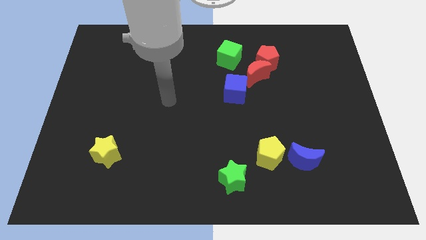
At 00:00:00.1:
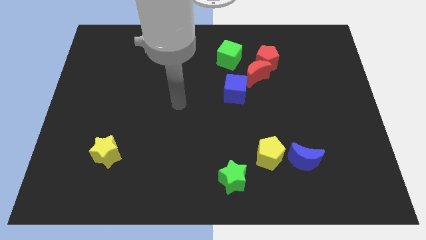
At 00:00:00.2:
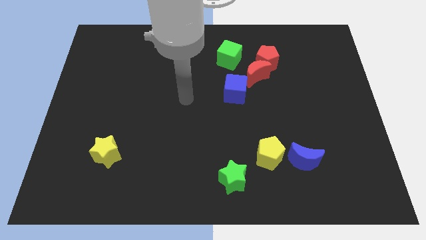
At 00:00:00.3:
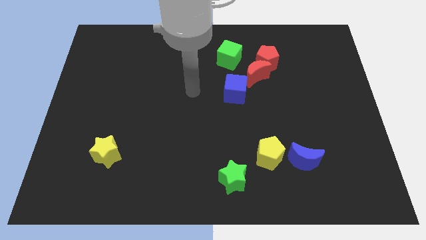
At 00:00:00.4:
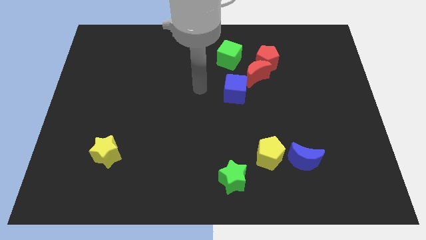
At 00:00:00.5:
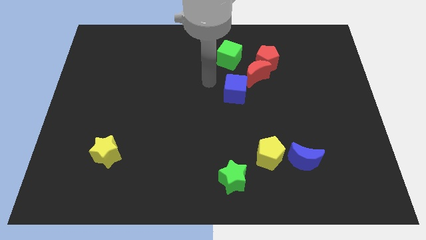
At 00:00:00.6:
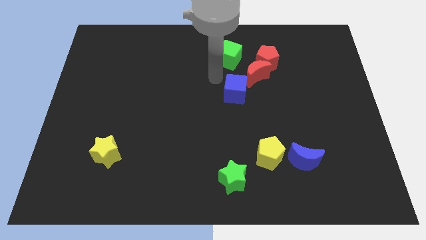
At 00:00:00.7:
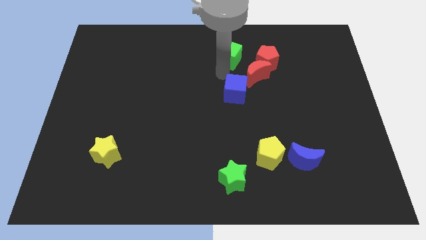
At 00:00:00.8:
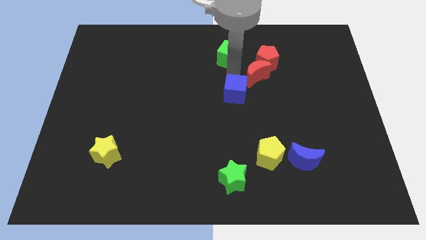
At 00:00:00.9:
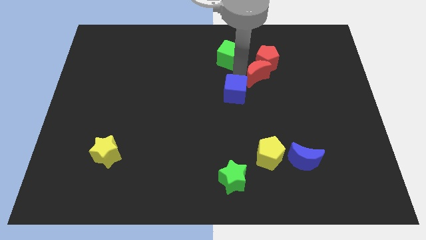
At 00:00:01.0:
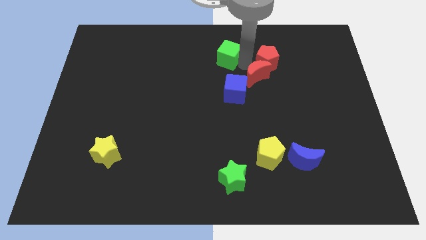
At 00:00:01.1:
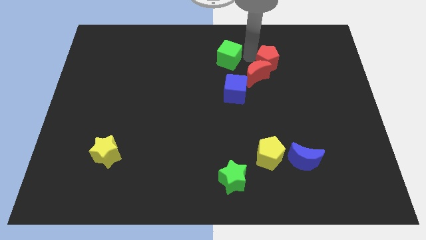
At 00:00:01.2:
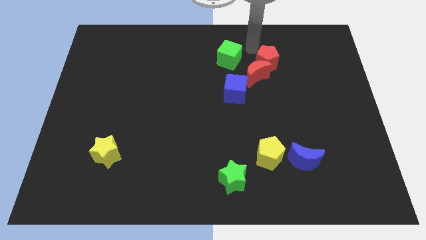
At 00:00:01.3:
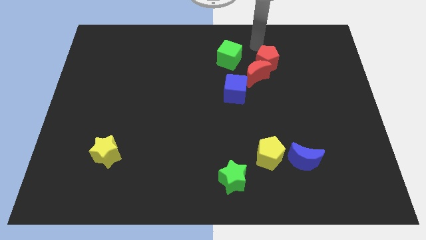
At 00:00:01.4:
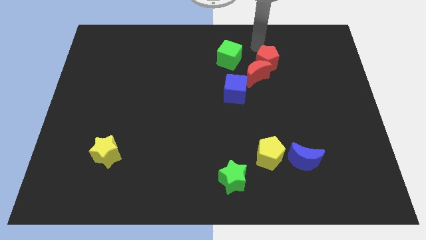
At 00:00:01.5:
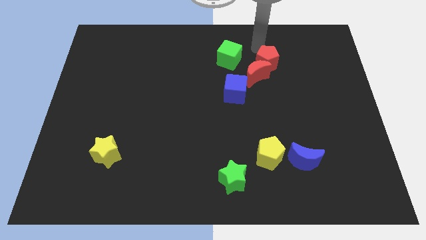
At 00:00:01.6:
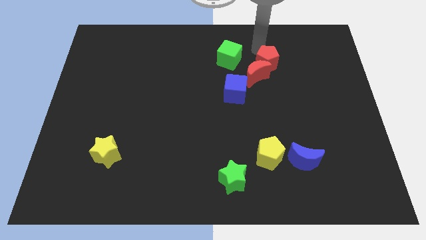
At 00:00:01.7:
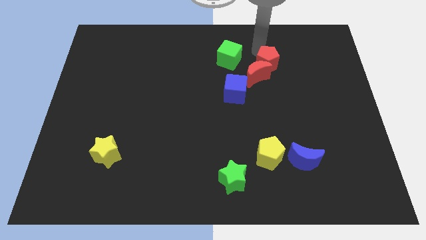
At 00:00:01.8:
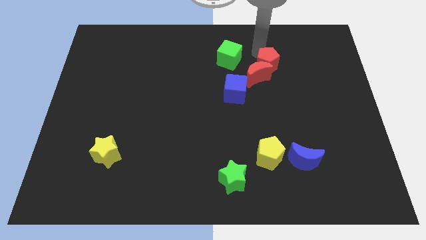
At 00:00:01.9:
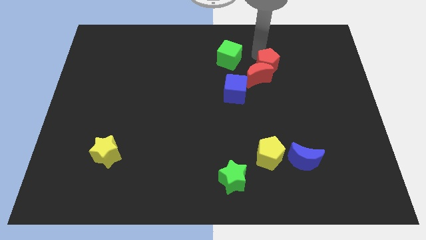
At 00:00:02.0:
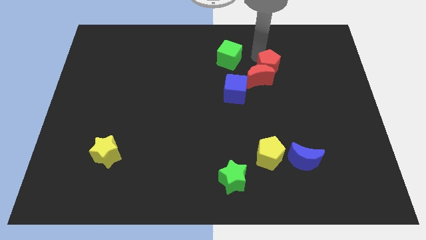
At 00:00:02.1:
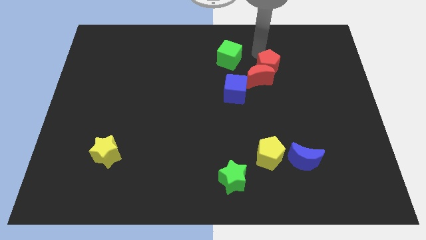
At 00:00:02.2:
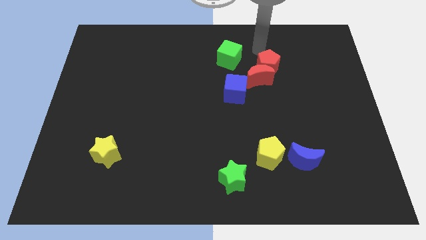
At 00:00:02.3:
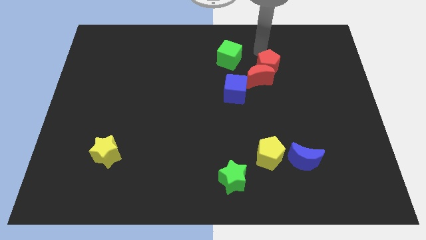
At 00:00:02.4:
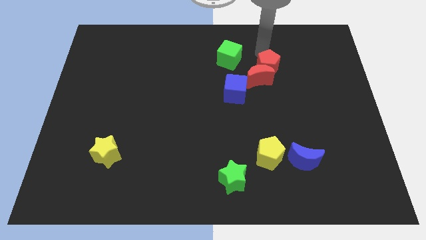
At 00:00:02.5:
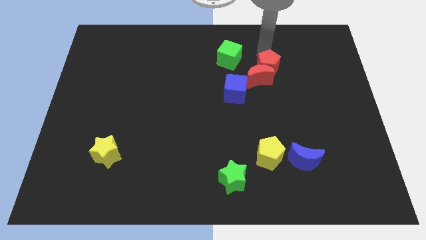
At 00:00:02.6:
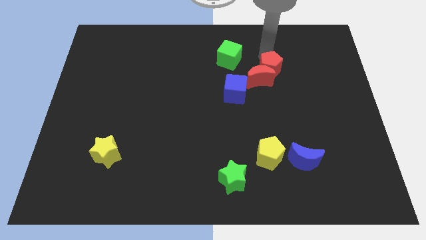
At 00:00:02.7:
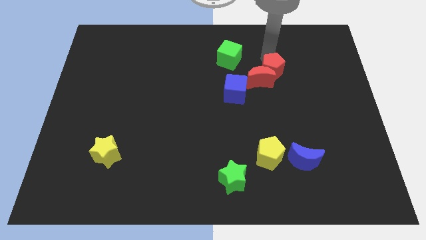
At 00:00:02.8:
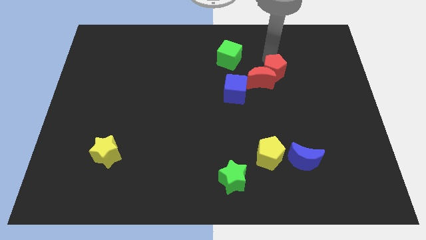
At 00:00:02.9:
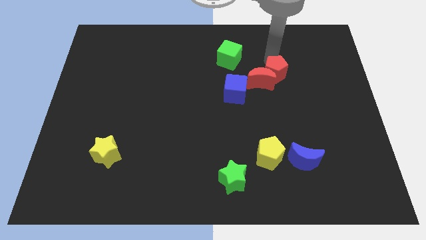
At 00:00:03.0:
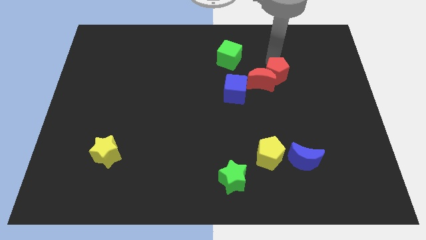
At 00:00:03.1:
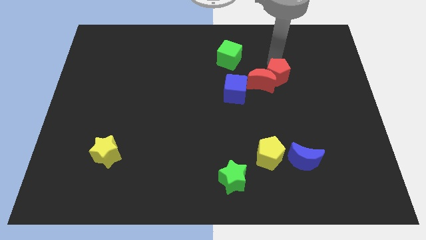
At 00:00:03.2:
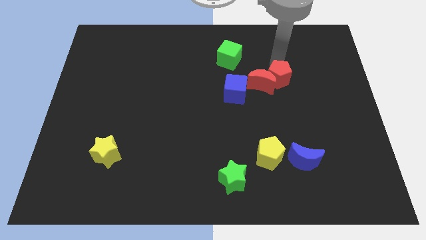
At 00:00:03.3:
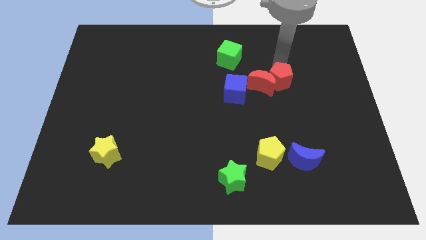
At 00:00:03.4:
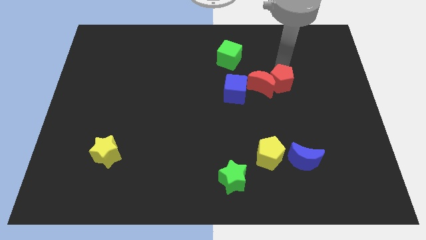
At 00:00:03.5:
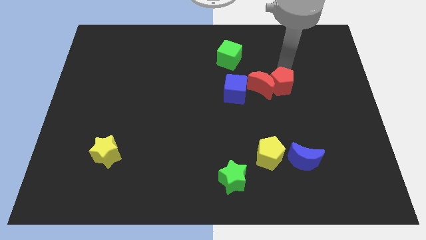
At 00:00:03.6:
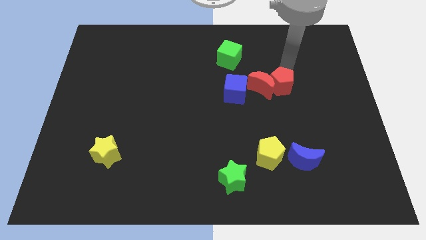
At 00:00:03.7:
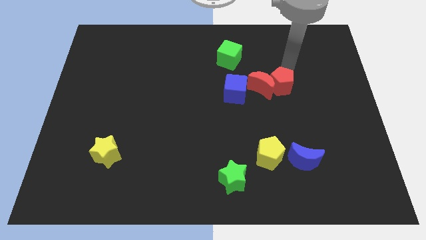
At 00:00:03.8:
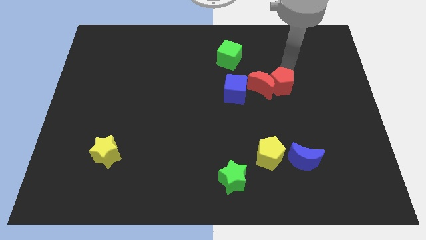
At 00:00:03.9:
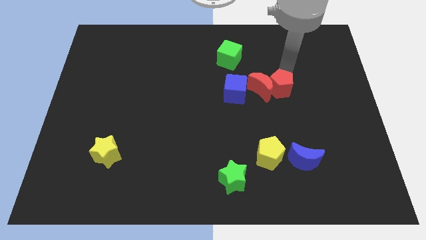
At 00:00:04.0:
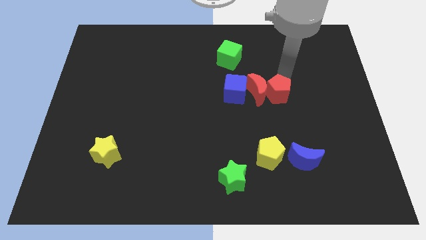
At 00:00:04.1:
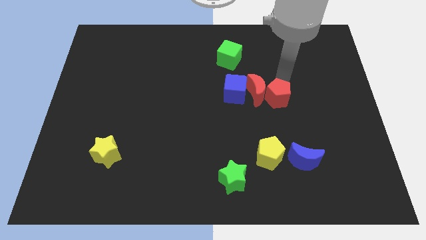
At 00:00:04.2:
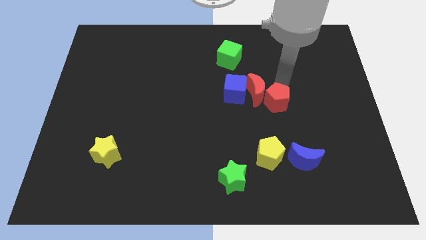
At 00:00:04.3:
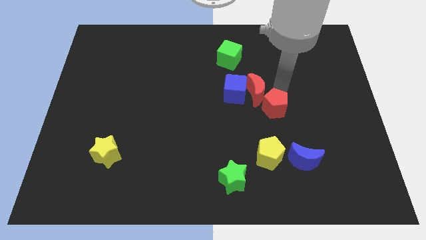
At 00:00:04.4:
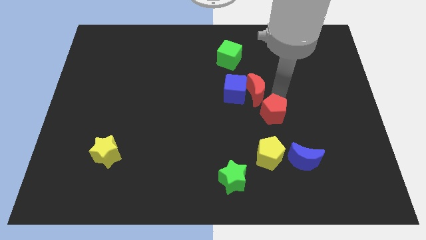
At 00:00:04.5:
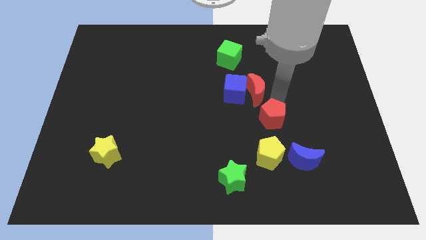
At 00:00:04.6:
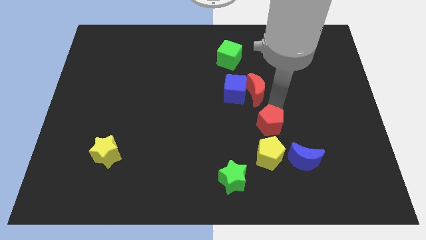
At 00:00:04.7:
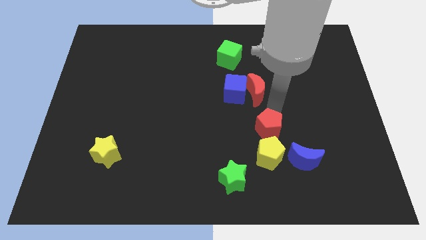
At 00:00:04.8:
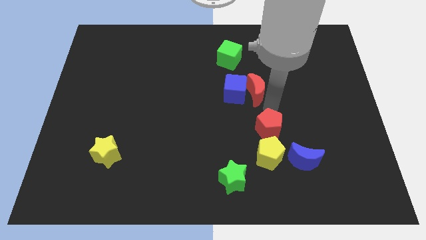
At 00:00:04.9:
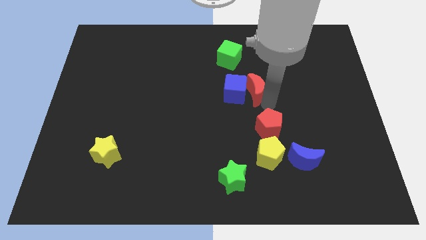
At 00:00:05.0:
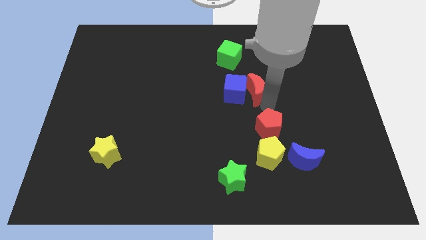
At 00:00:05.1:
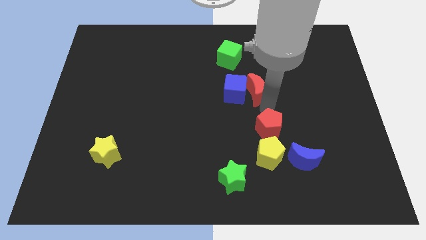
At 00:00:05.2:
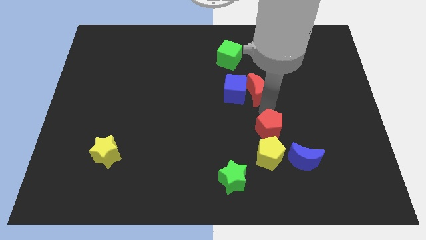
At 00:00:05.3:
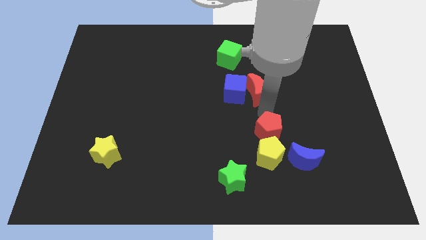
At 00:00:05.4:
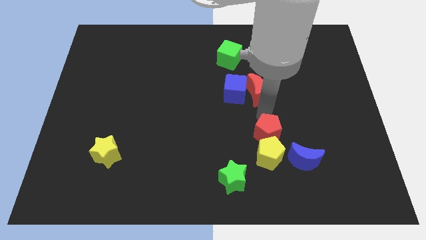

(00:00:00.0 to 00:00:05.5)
move the red pentagon next to the yellow pentagon

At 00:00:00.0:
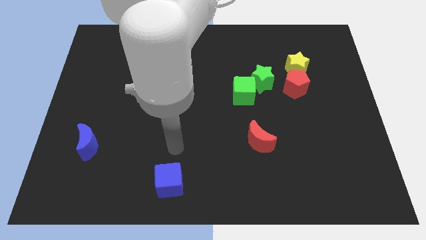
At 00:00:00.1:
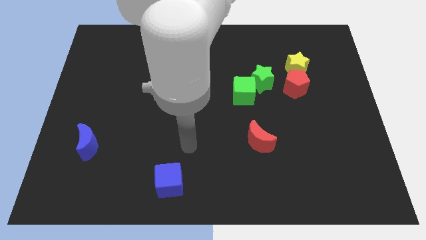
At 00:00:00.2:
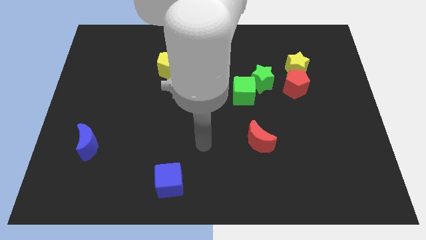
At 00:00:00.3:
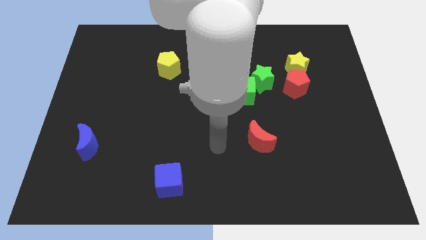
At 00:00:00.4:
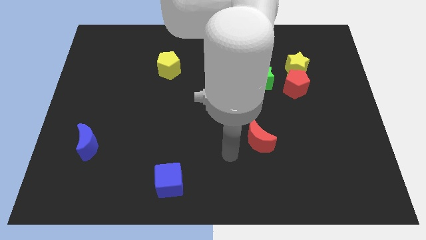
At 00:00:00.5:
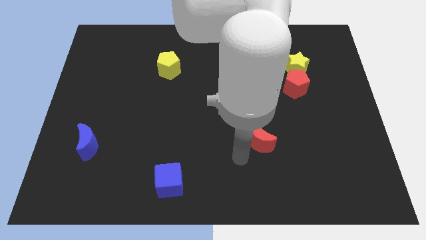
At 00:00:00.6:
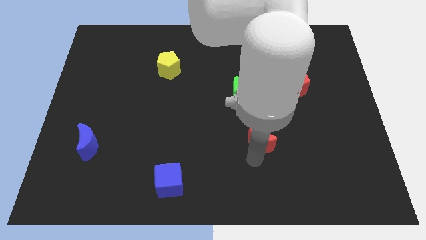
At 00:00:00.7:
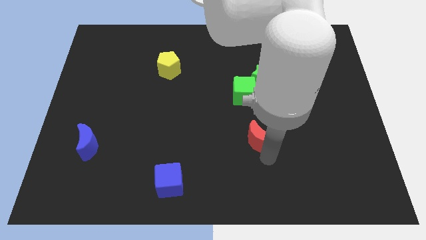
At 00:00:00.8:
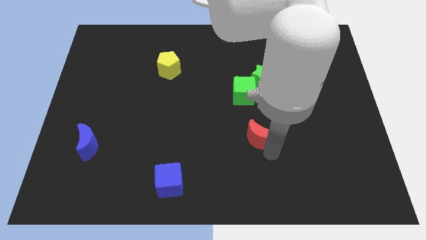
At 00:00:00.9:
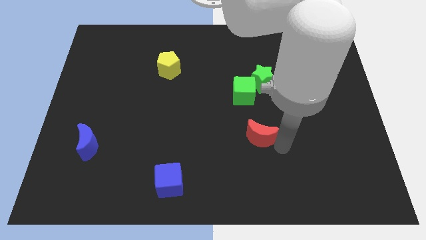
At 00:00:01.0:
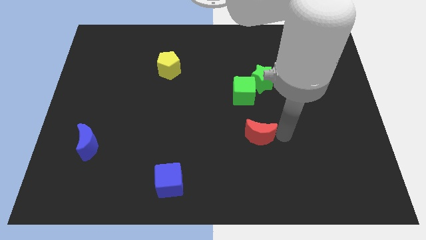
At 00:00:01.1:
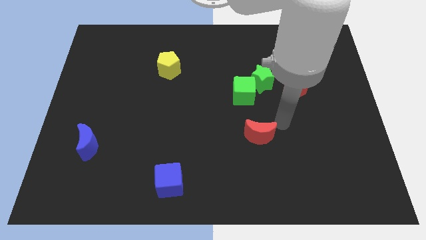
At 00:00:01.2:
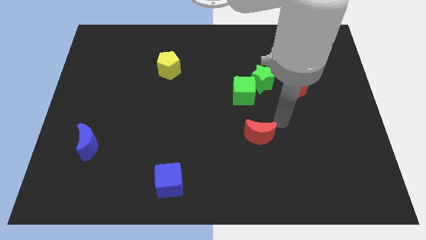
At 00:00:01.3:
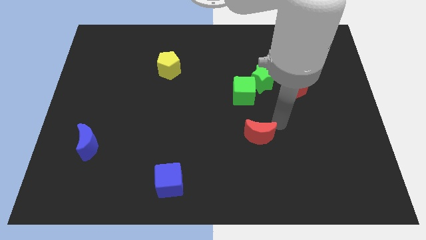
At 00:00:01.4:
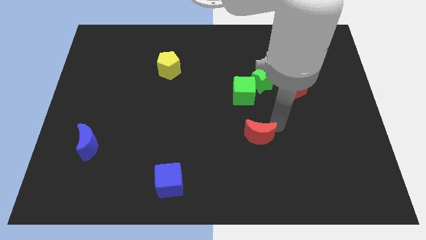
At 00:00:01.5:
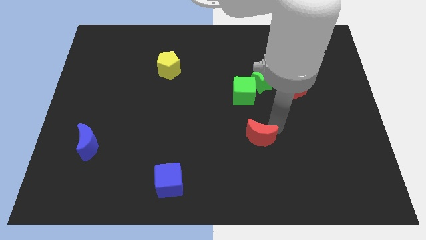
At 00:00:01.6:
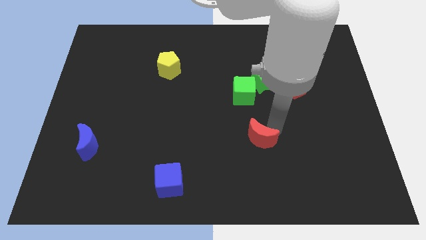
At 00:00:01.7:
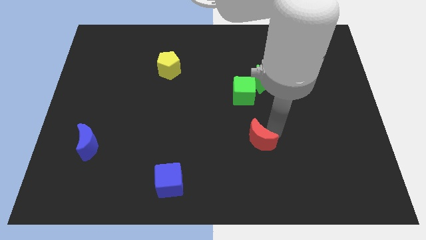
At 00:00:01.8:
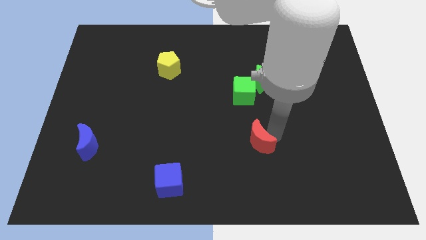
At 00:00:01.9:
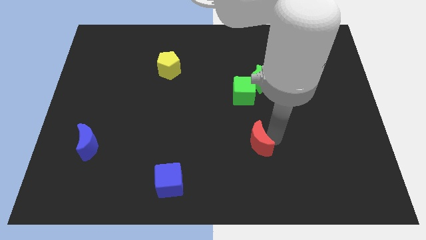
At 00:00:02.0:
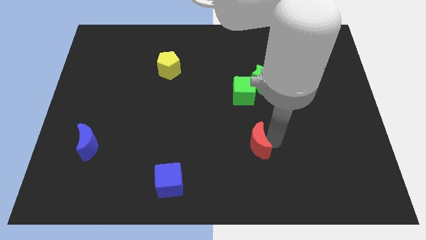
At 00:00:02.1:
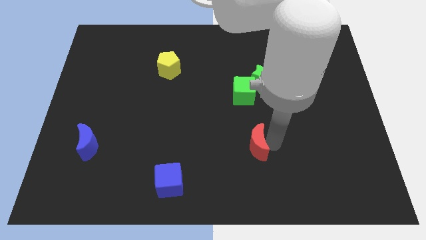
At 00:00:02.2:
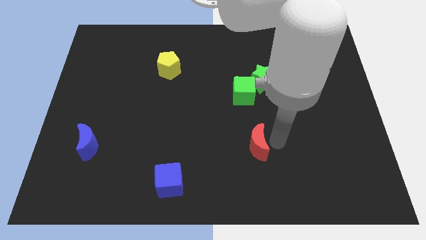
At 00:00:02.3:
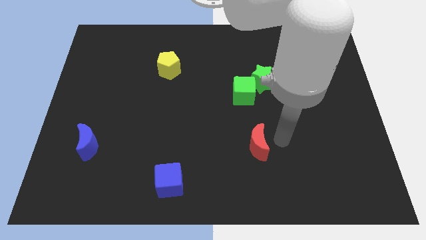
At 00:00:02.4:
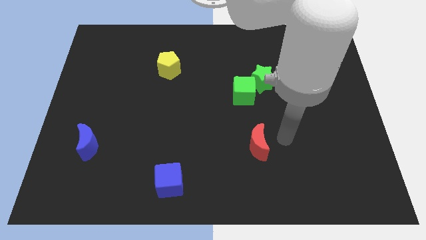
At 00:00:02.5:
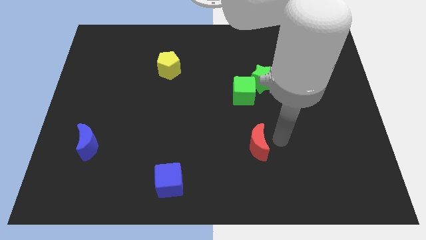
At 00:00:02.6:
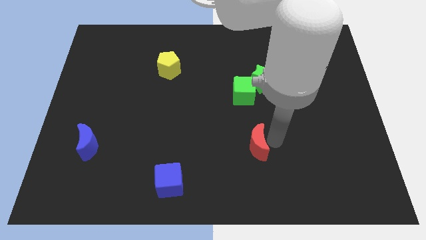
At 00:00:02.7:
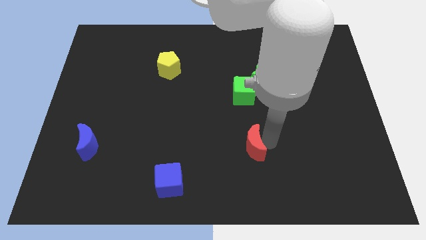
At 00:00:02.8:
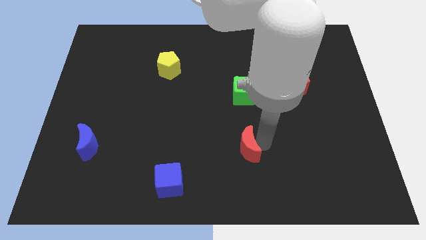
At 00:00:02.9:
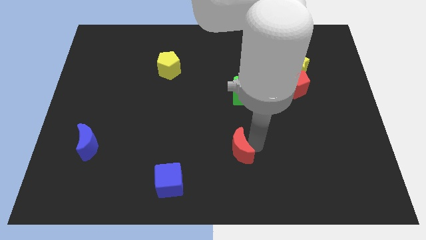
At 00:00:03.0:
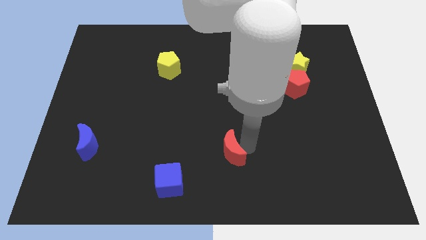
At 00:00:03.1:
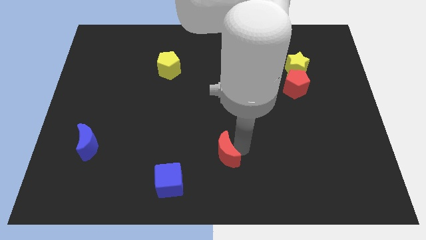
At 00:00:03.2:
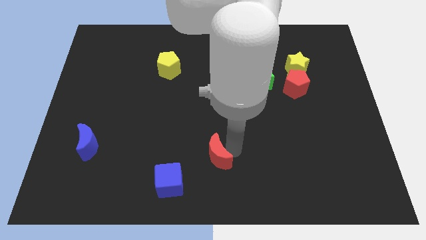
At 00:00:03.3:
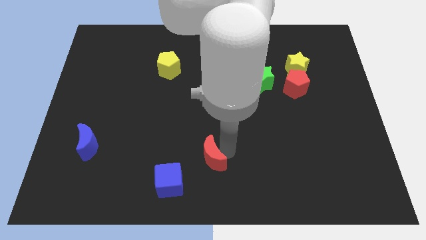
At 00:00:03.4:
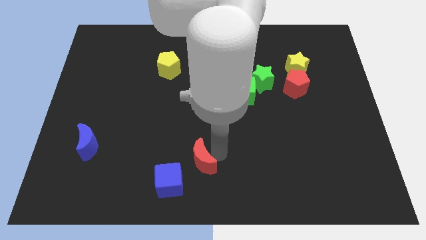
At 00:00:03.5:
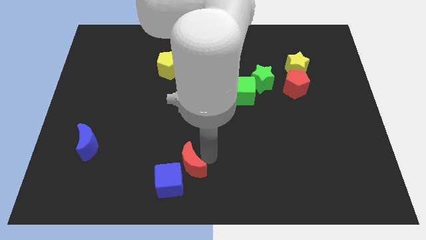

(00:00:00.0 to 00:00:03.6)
move the red moon to the blue cube
